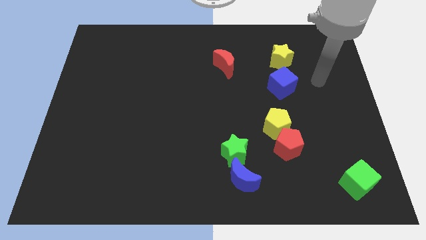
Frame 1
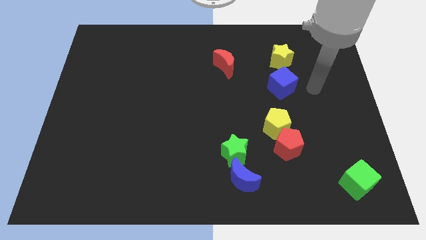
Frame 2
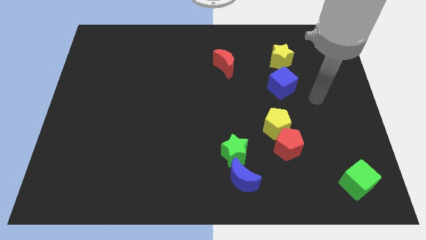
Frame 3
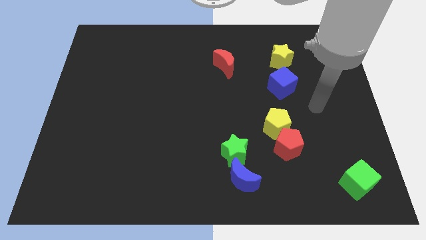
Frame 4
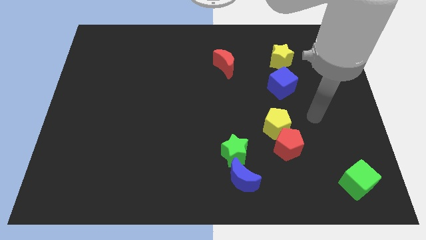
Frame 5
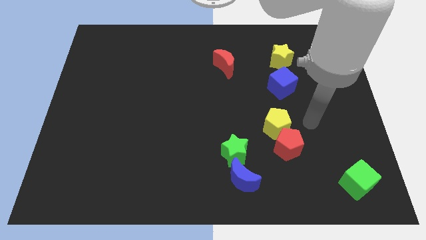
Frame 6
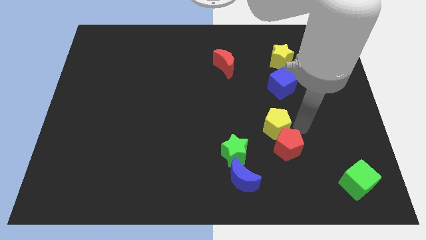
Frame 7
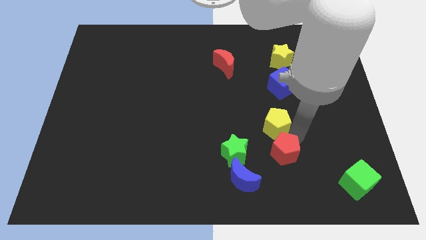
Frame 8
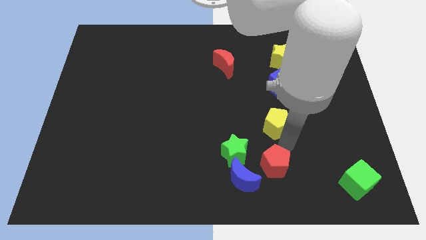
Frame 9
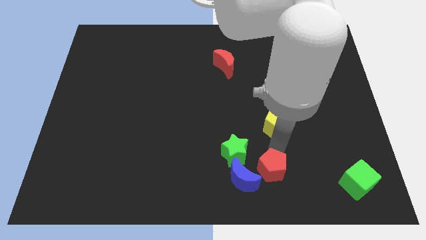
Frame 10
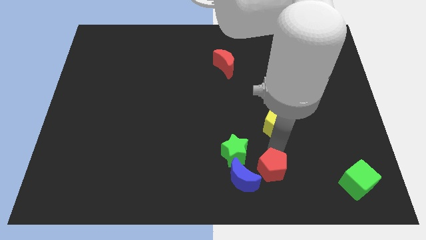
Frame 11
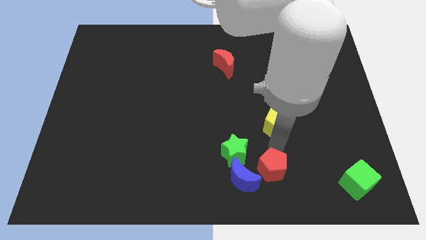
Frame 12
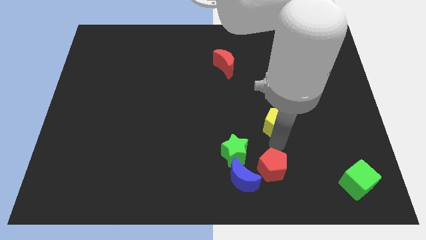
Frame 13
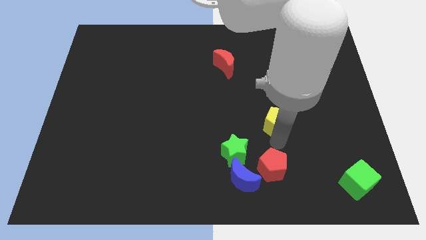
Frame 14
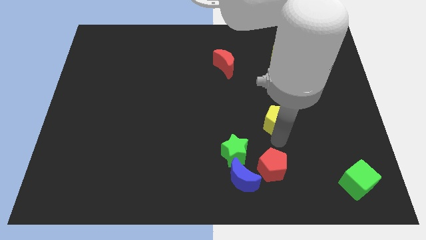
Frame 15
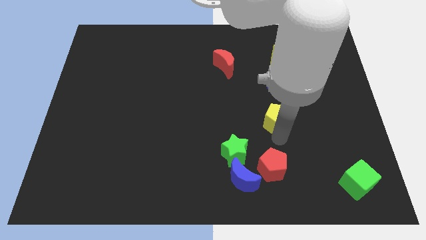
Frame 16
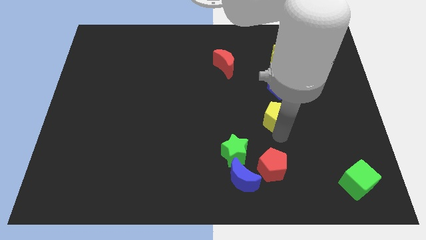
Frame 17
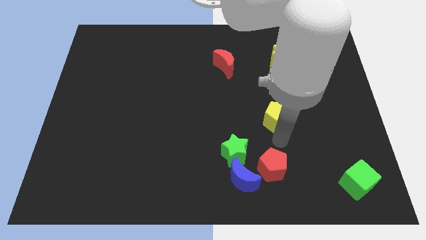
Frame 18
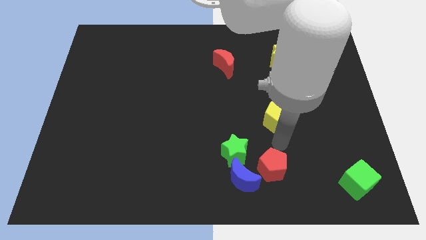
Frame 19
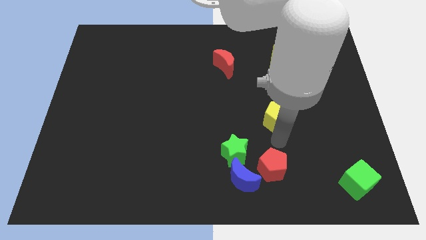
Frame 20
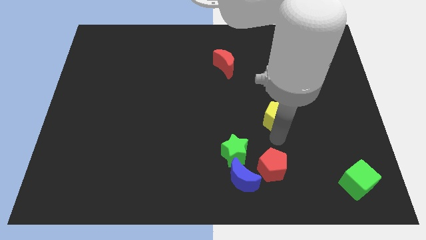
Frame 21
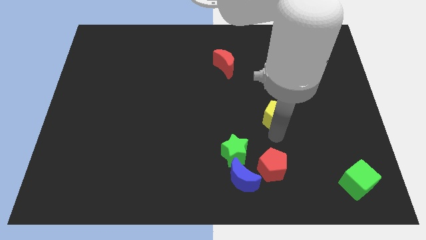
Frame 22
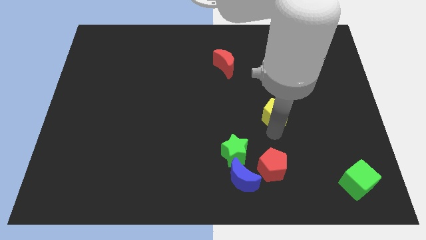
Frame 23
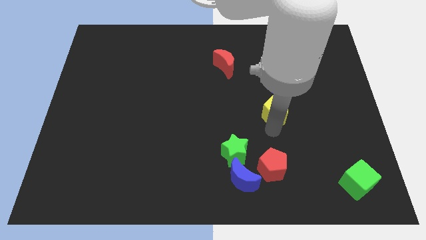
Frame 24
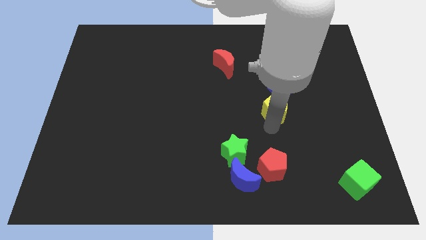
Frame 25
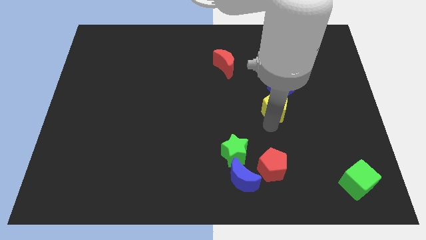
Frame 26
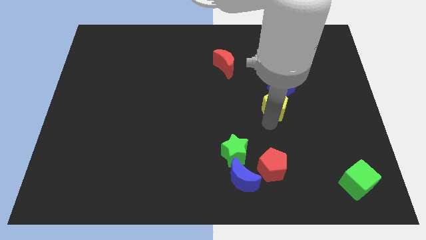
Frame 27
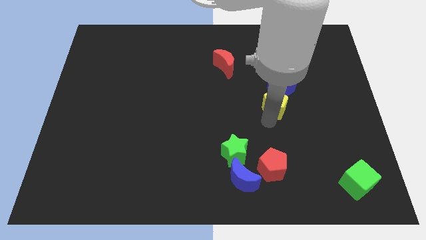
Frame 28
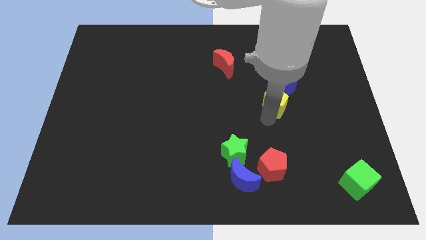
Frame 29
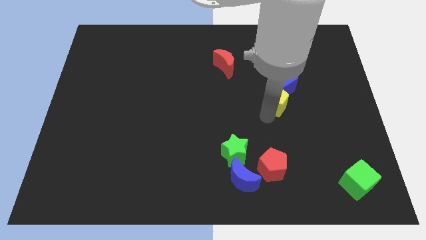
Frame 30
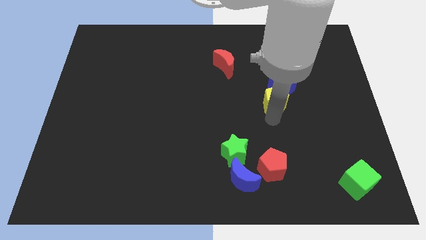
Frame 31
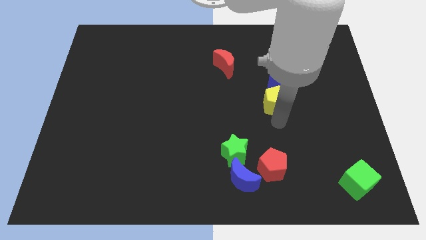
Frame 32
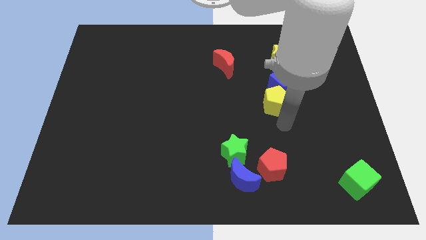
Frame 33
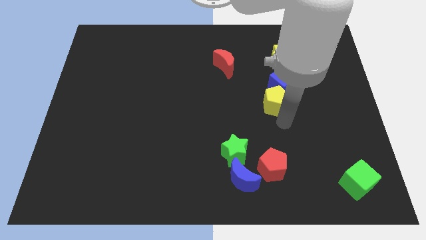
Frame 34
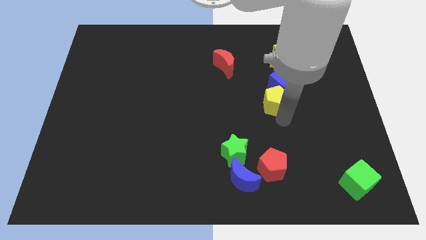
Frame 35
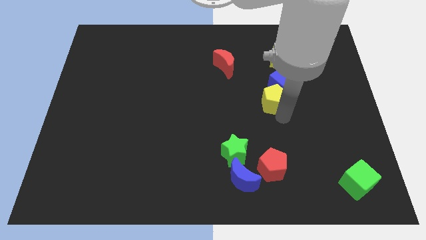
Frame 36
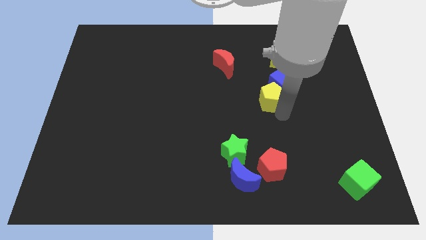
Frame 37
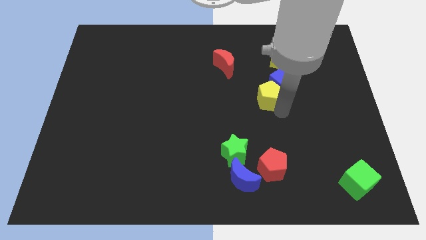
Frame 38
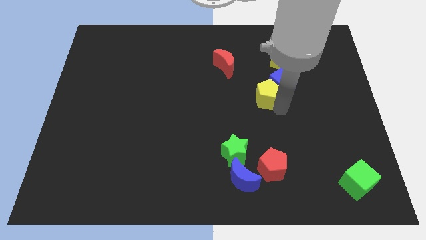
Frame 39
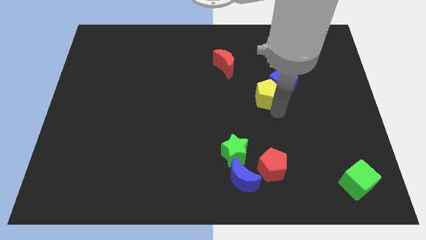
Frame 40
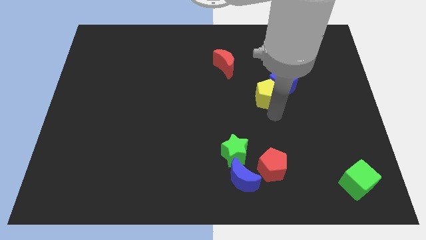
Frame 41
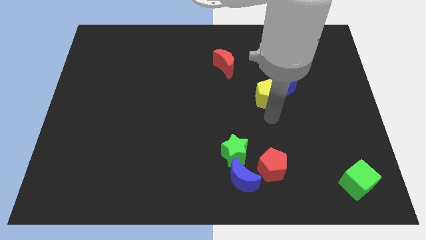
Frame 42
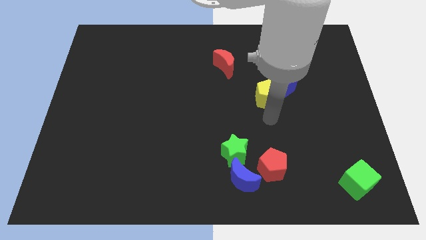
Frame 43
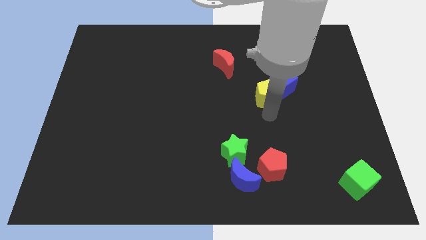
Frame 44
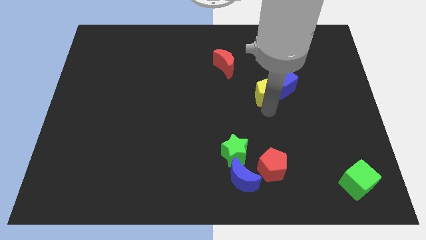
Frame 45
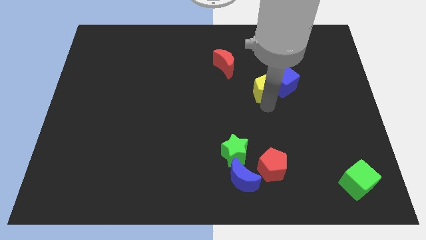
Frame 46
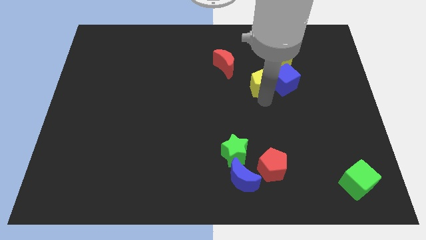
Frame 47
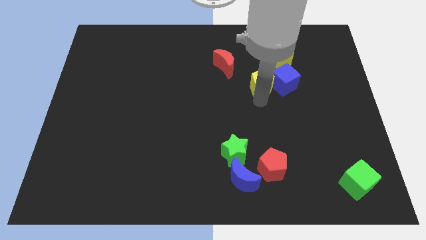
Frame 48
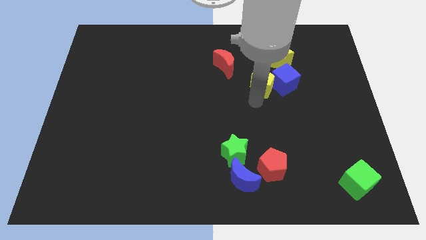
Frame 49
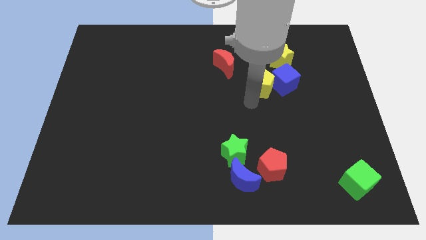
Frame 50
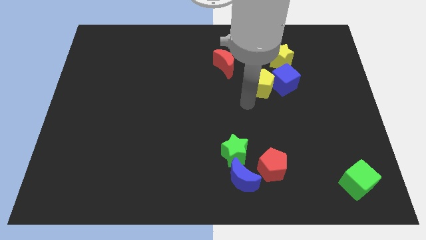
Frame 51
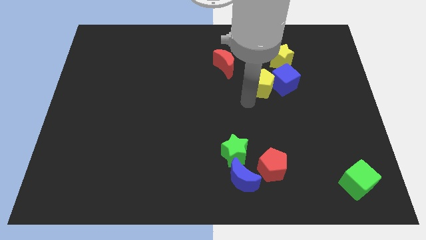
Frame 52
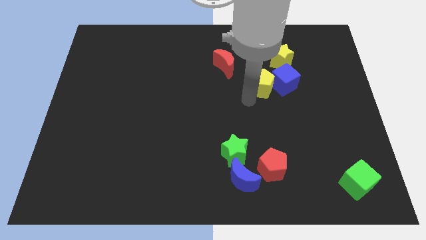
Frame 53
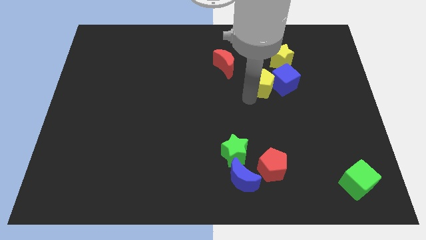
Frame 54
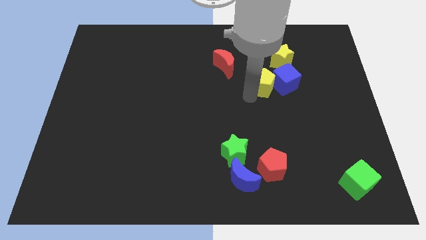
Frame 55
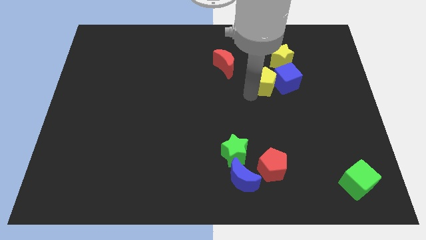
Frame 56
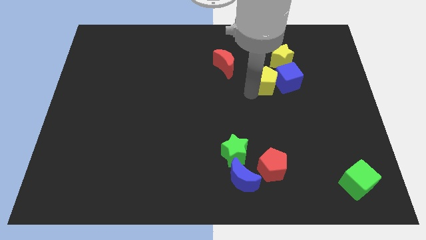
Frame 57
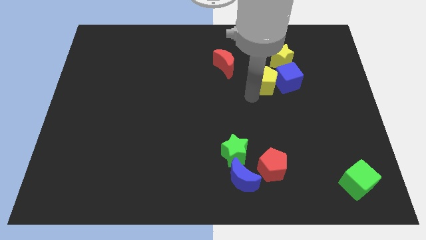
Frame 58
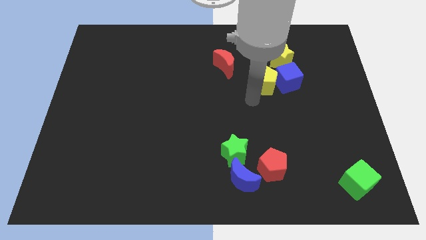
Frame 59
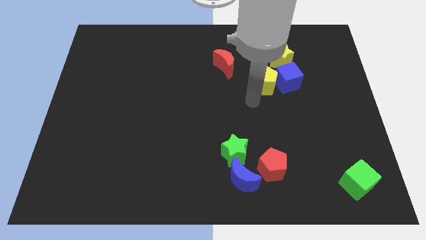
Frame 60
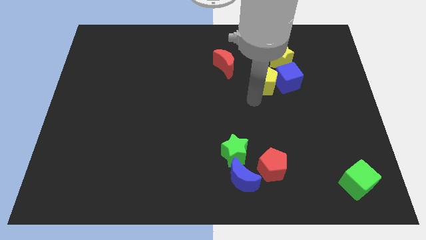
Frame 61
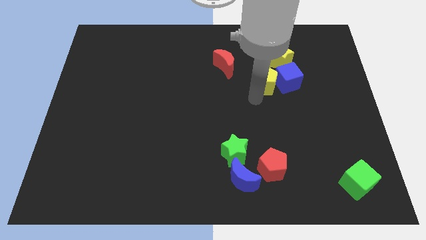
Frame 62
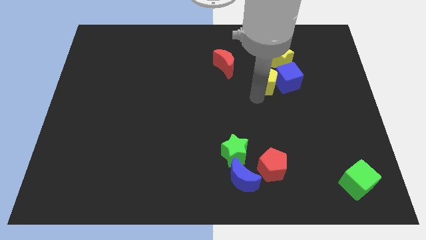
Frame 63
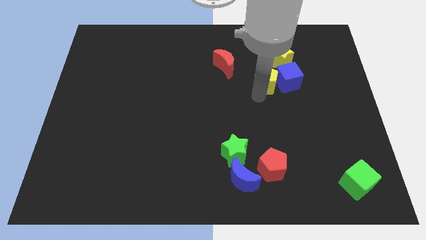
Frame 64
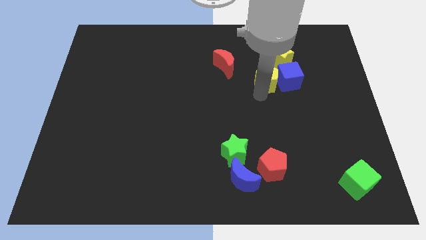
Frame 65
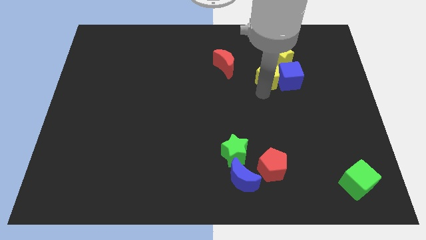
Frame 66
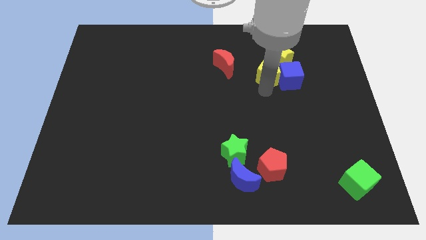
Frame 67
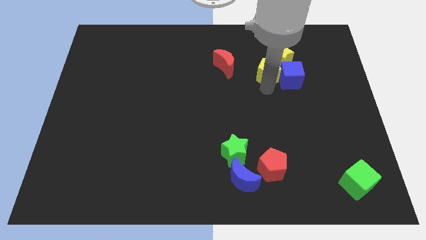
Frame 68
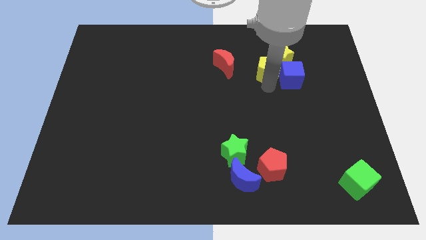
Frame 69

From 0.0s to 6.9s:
put the yellow pentagon close to the yellow star

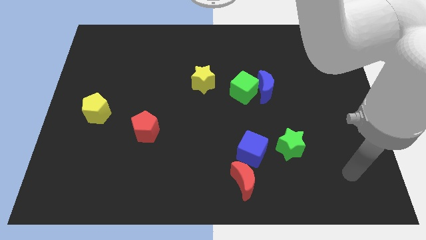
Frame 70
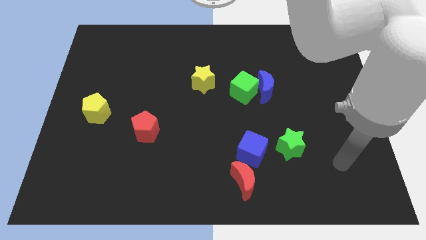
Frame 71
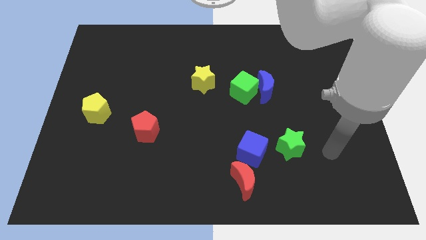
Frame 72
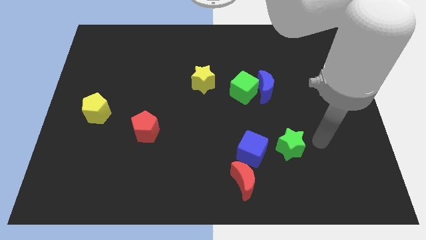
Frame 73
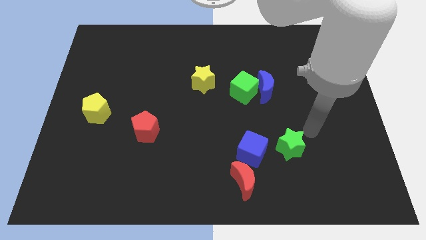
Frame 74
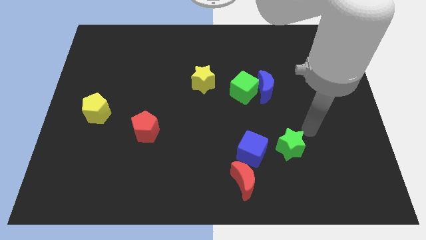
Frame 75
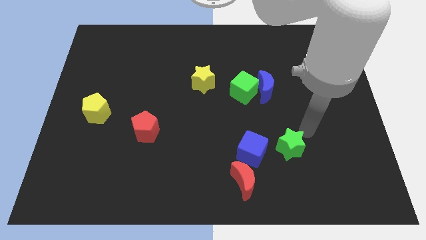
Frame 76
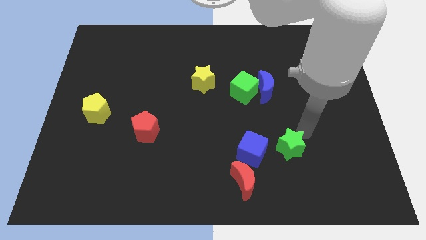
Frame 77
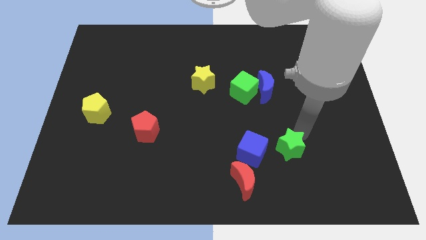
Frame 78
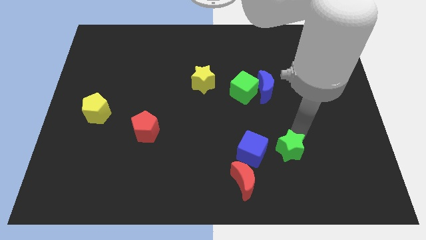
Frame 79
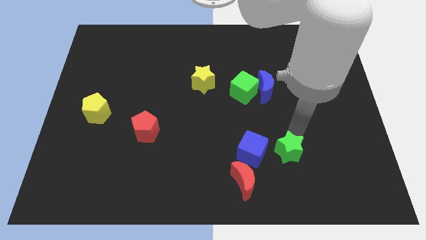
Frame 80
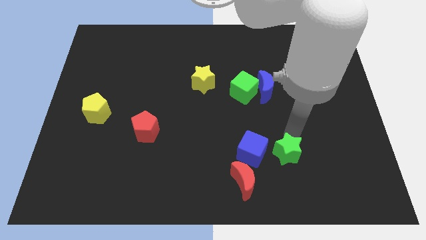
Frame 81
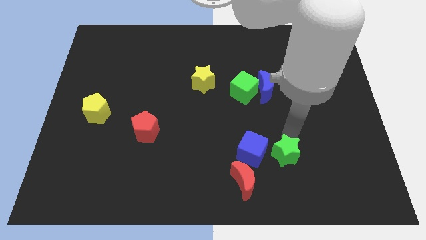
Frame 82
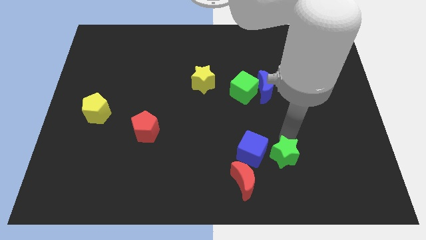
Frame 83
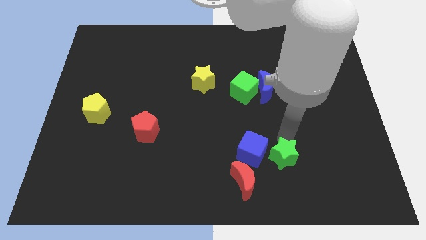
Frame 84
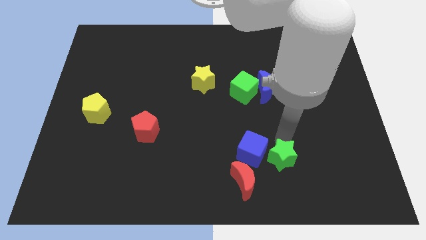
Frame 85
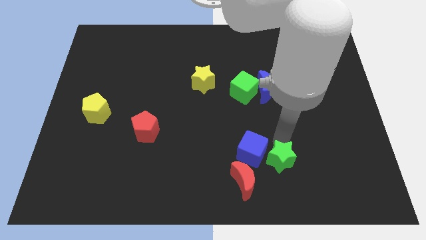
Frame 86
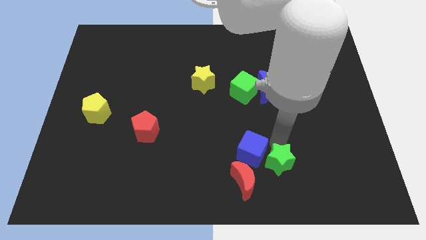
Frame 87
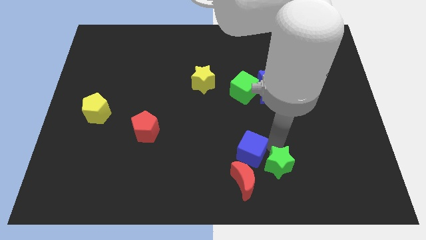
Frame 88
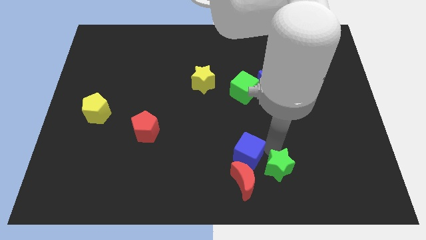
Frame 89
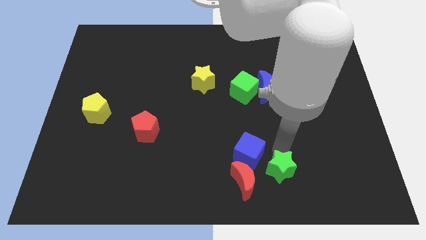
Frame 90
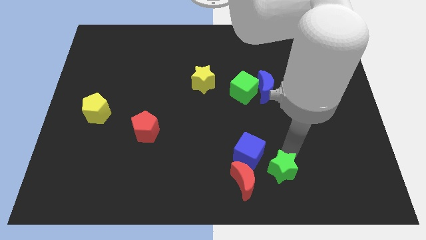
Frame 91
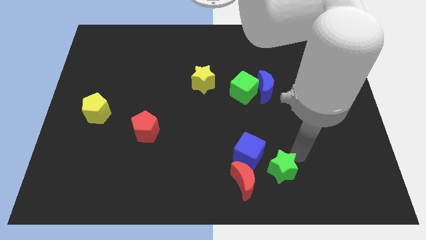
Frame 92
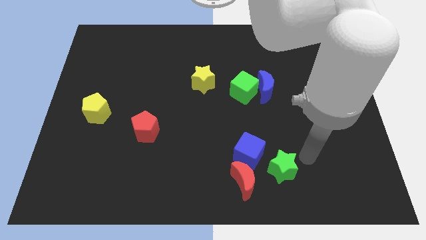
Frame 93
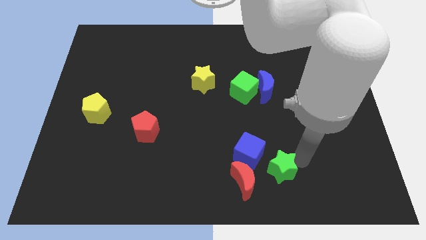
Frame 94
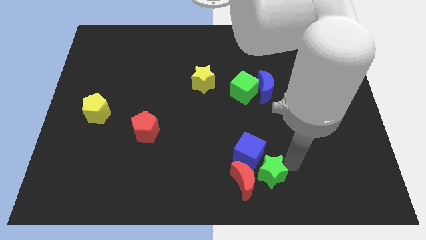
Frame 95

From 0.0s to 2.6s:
push the green star to the red moon
